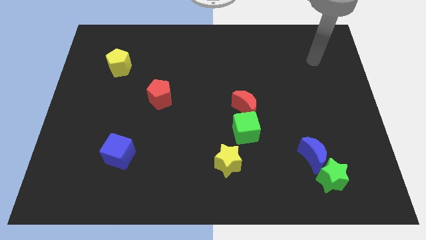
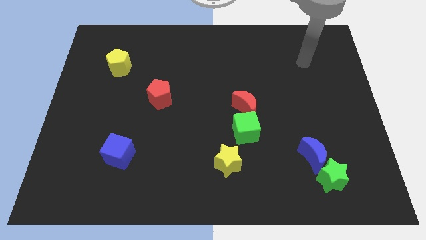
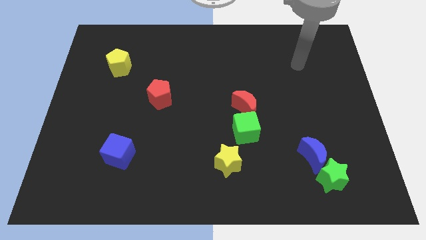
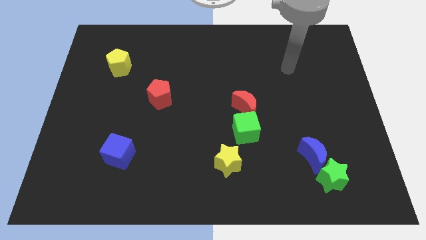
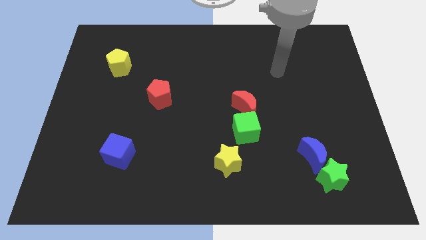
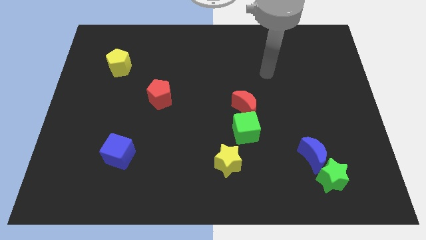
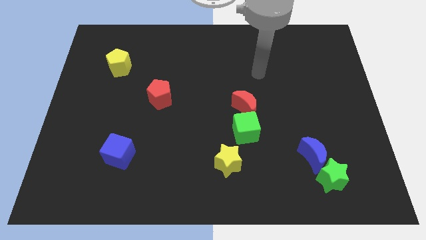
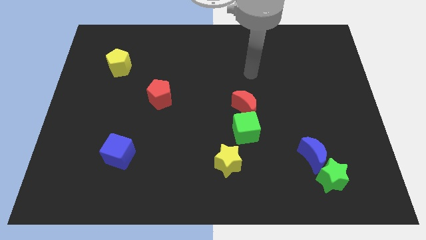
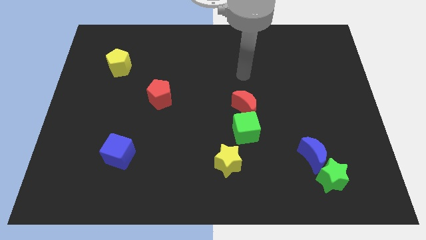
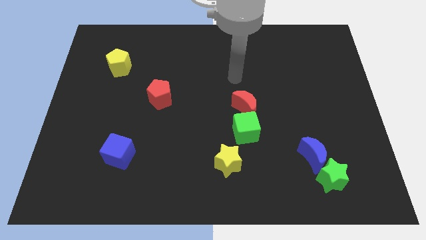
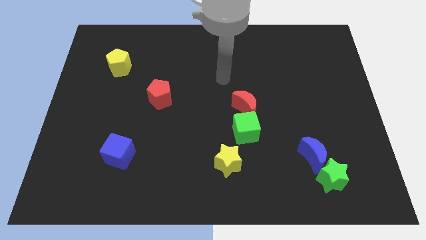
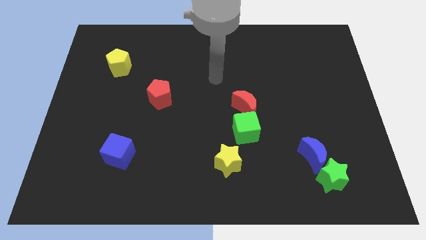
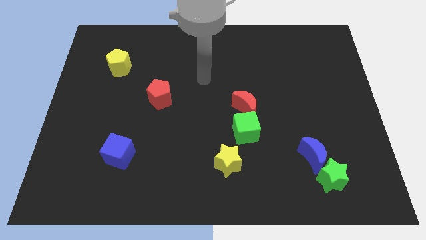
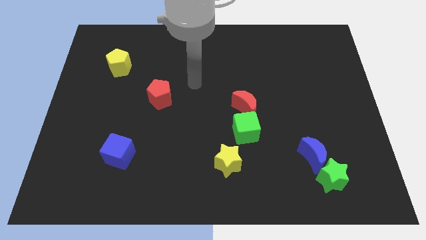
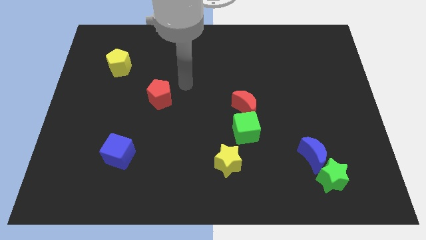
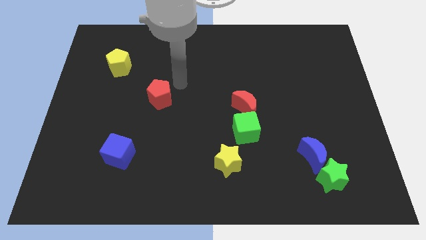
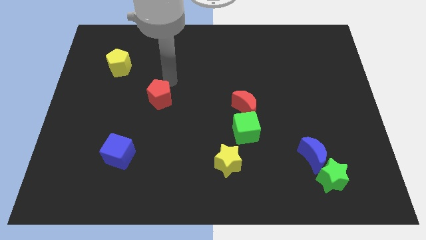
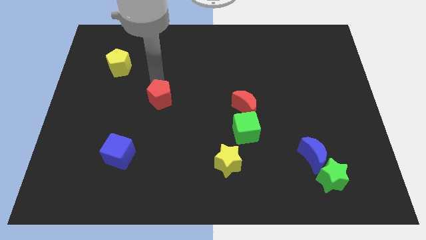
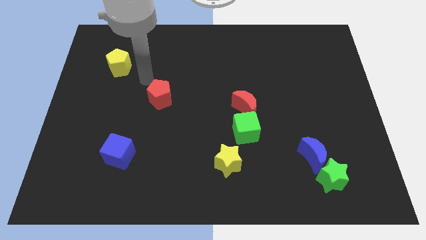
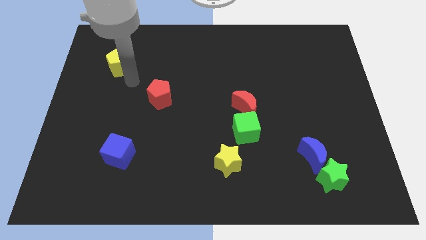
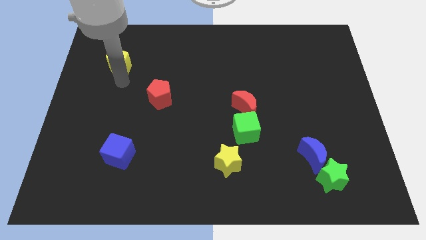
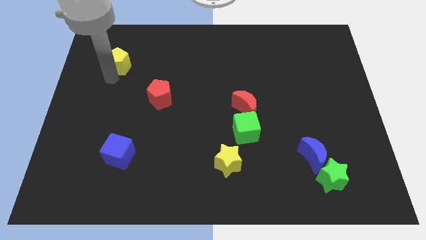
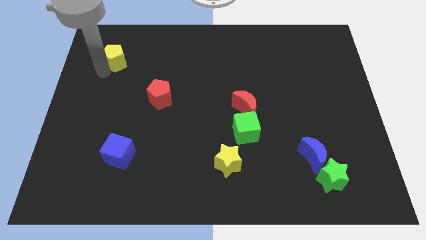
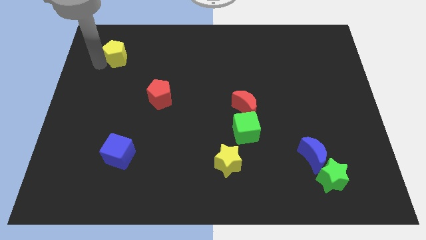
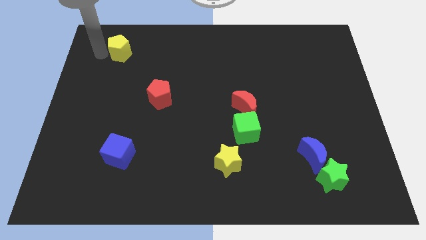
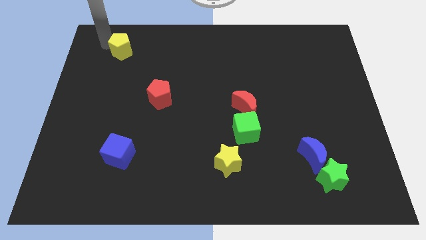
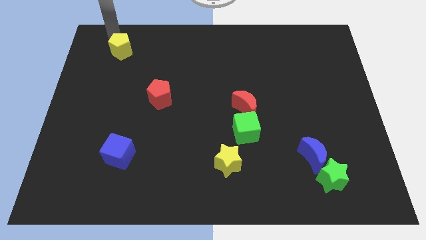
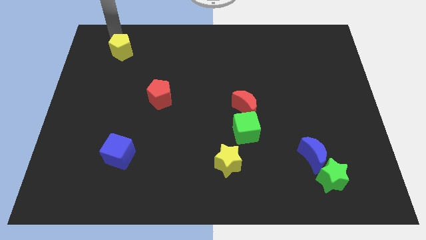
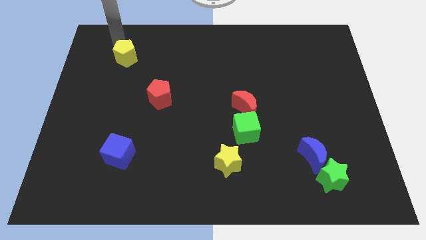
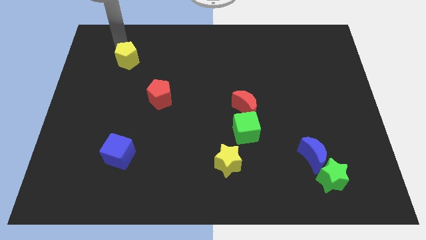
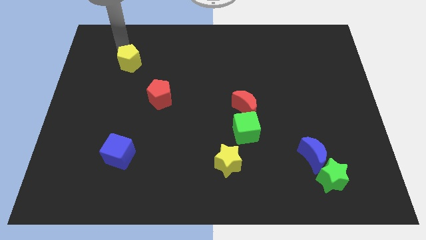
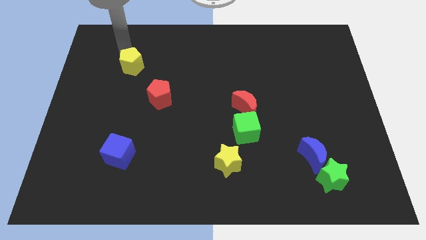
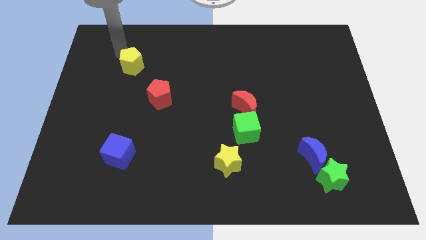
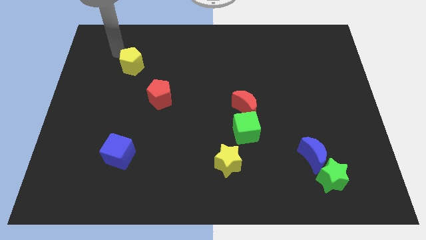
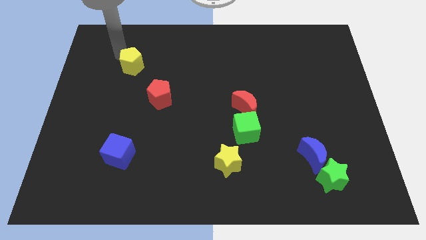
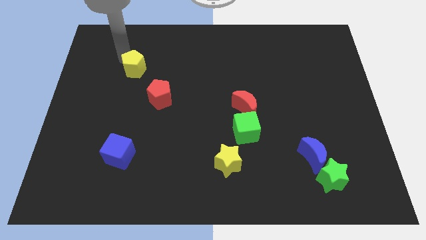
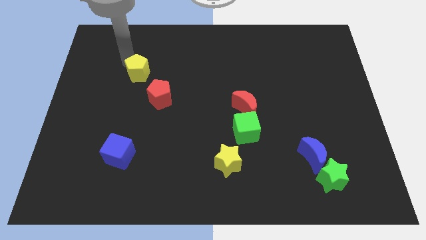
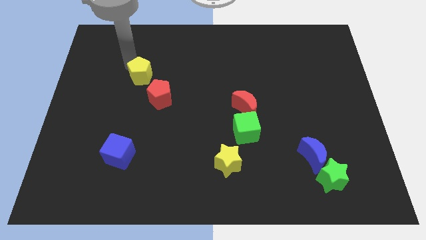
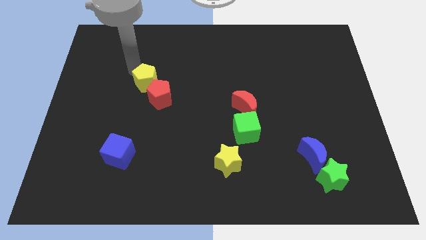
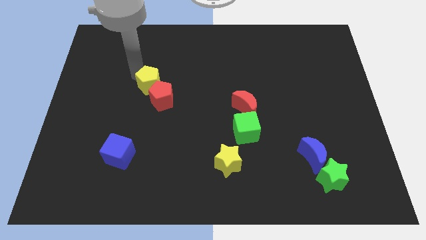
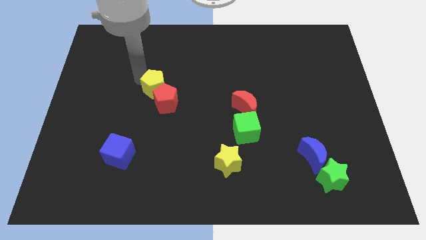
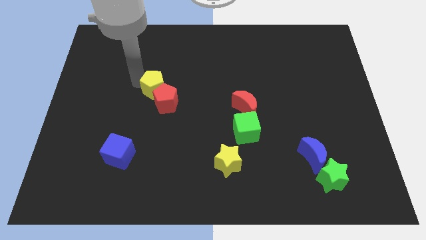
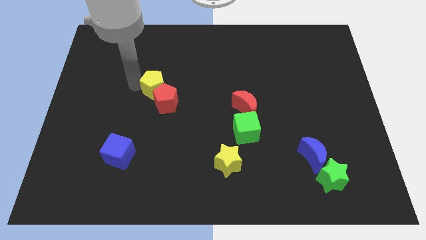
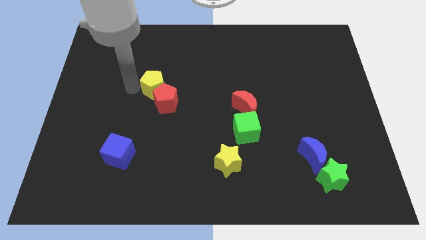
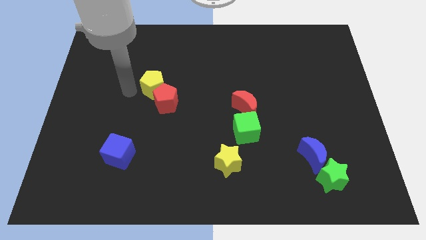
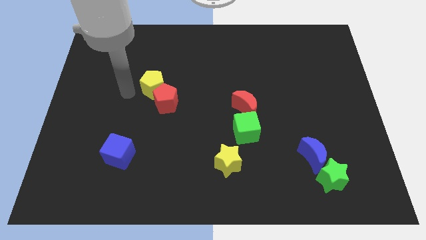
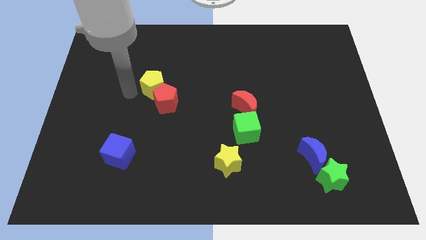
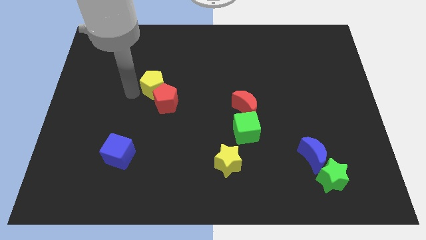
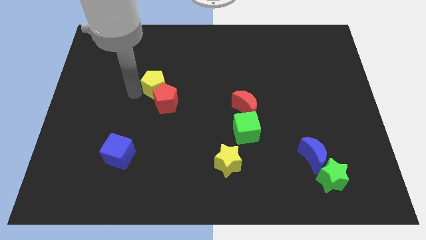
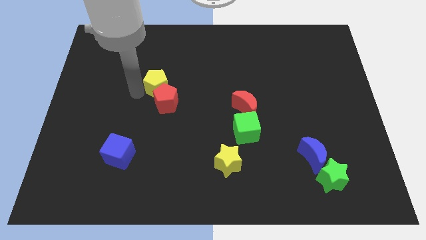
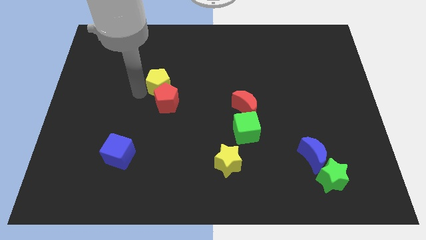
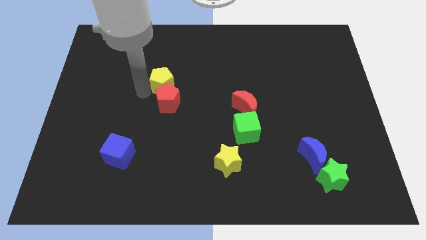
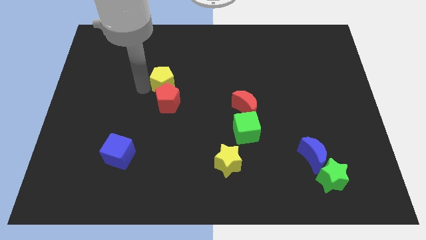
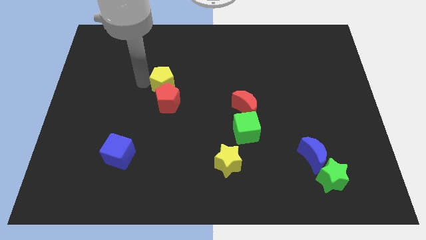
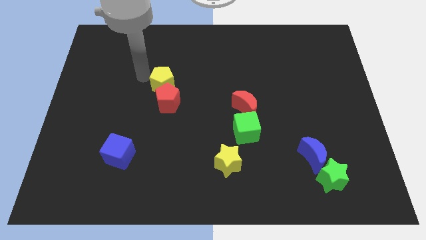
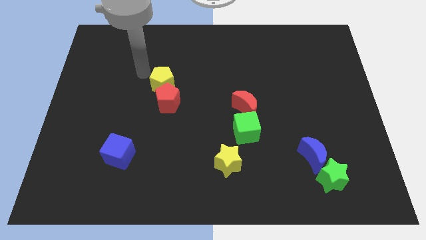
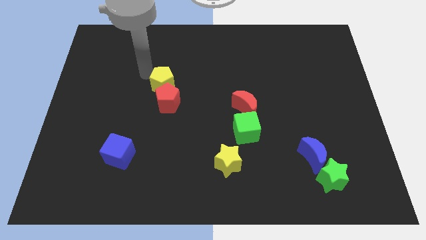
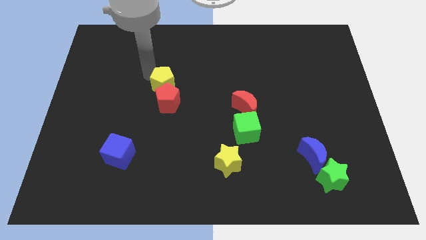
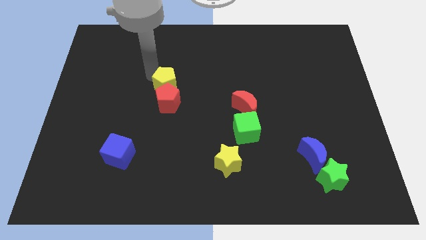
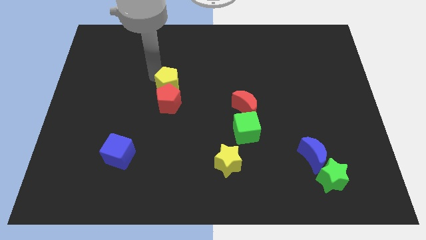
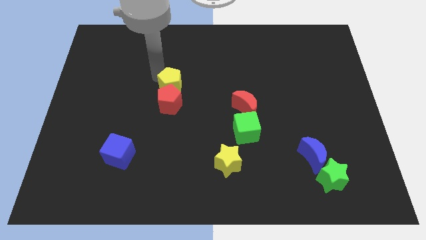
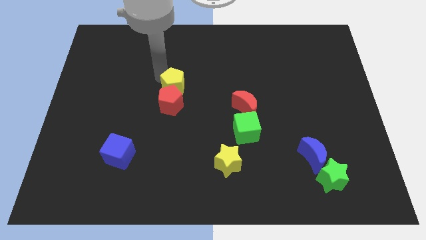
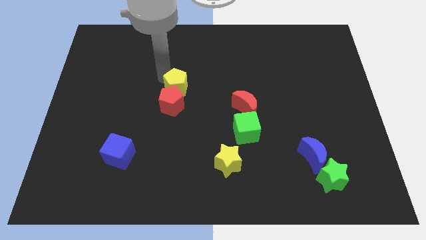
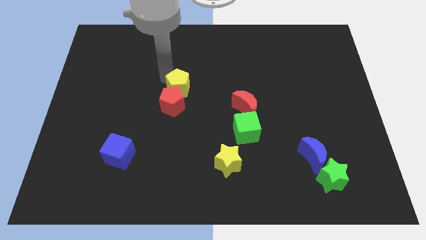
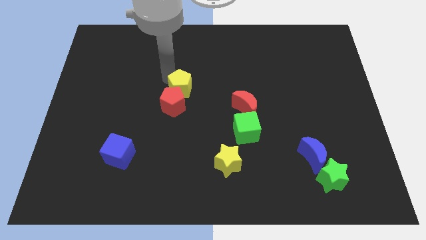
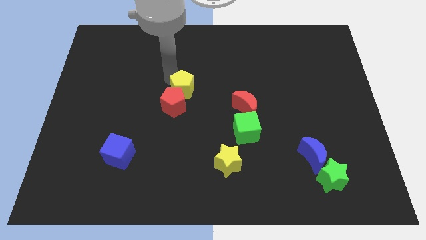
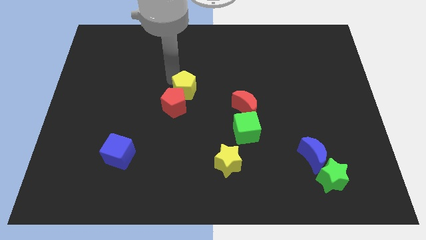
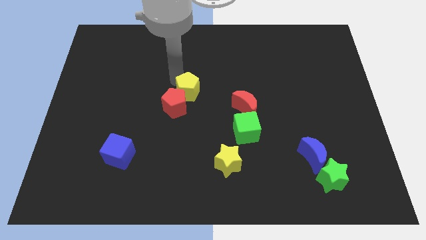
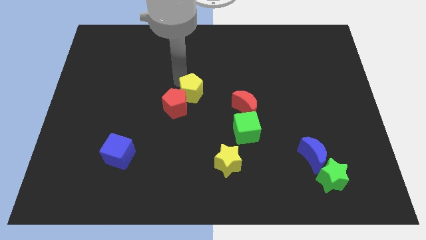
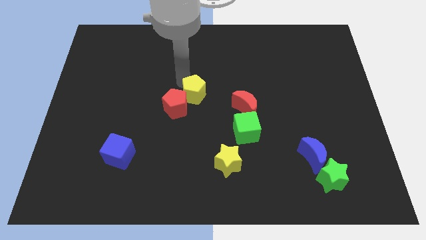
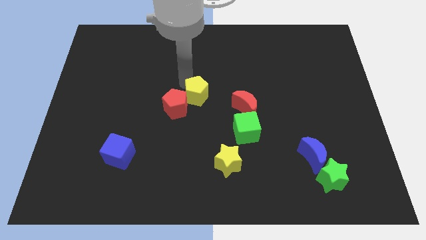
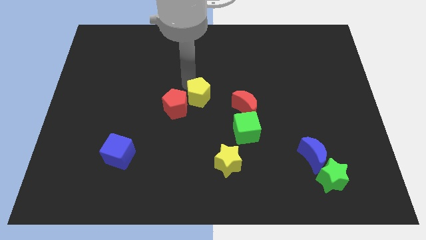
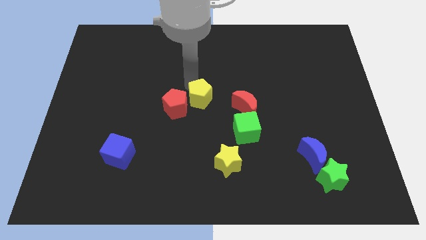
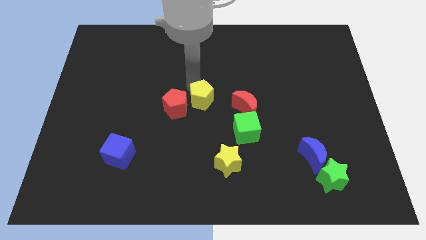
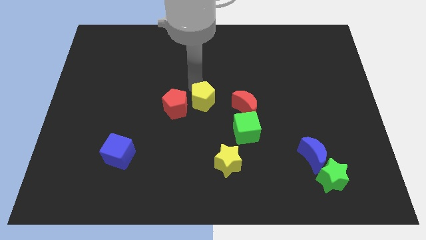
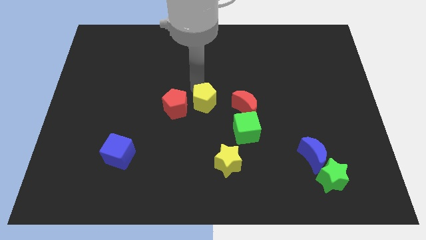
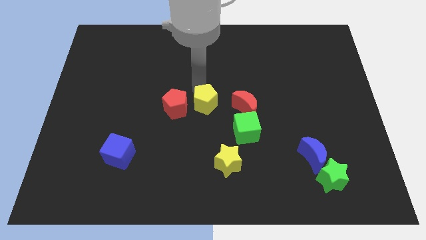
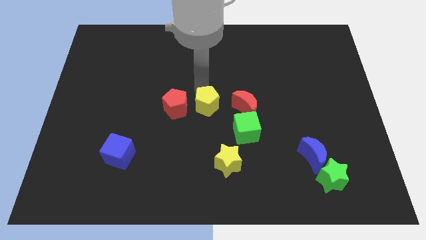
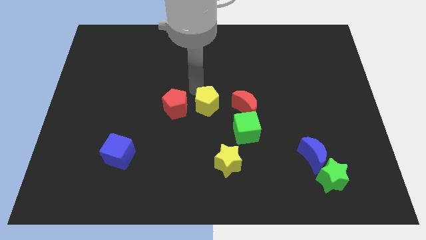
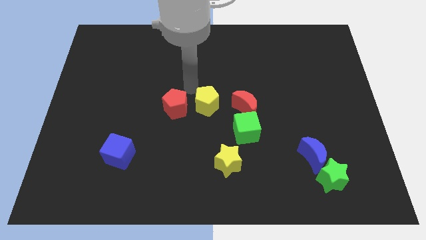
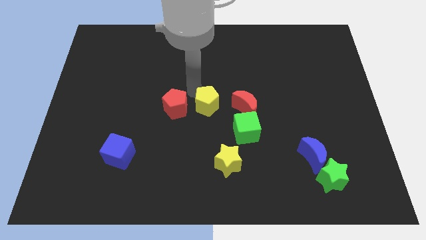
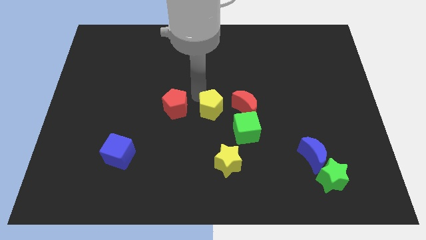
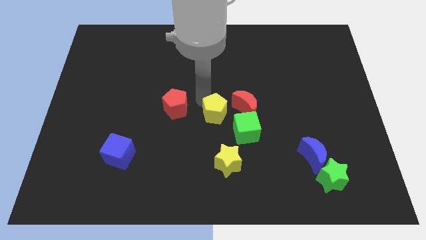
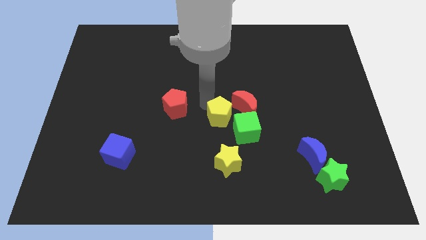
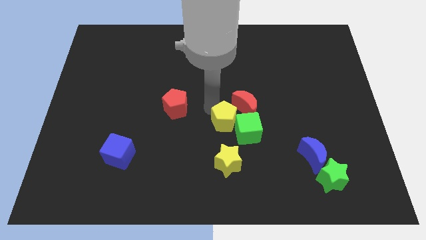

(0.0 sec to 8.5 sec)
put the yellow pentagon towards the green cube
